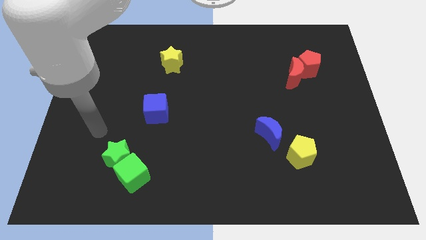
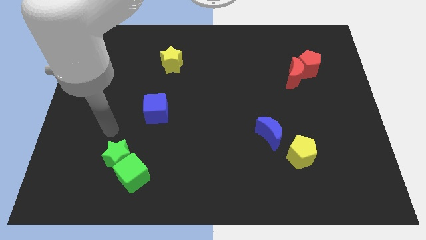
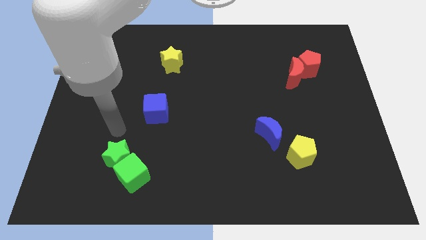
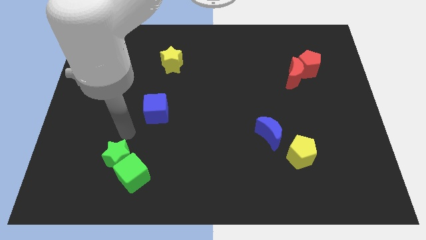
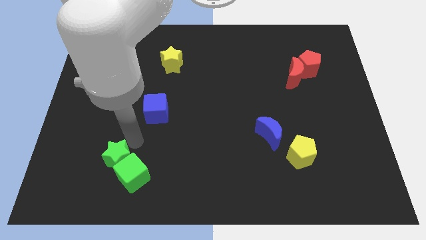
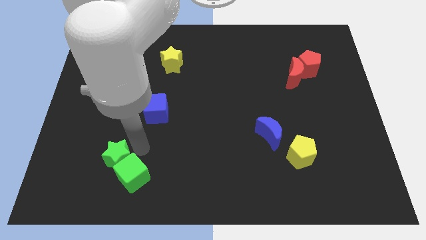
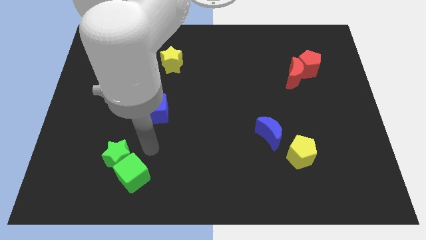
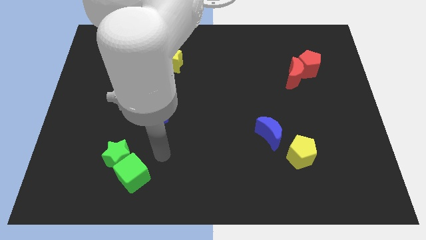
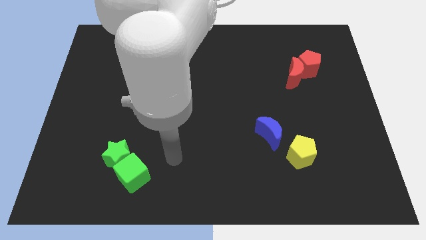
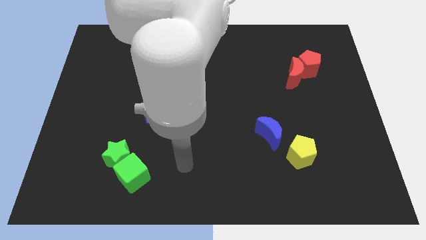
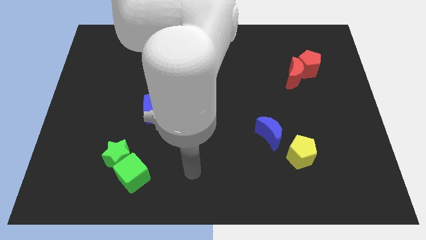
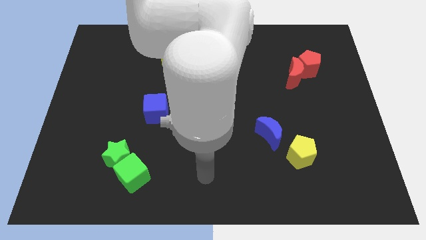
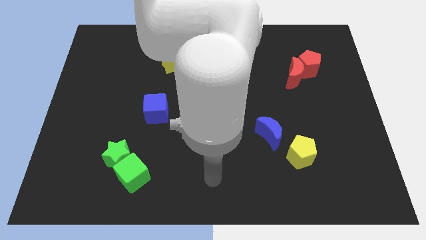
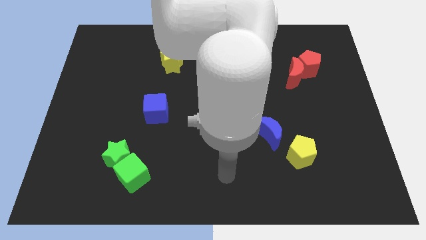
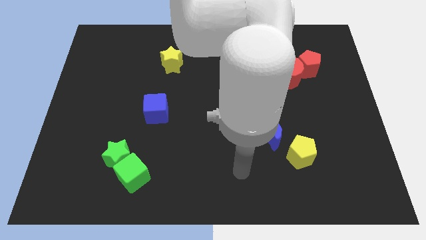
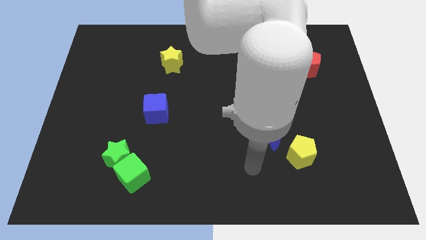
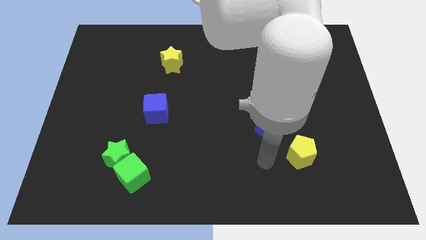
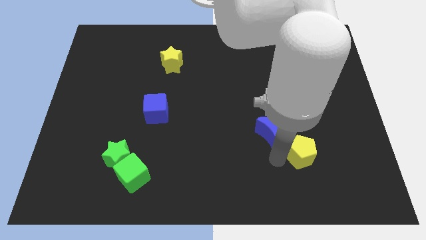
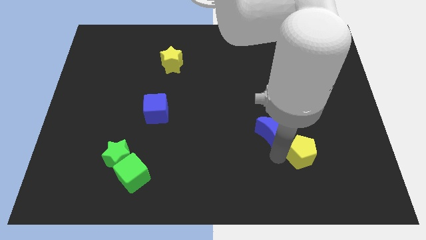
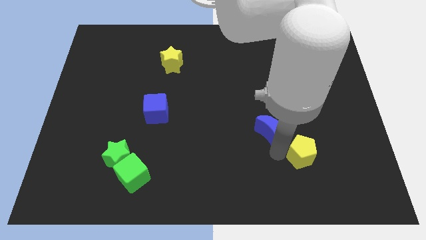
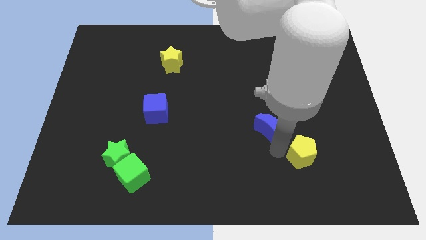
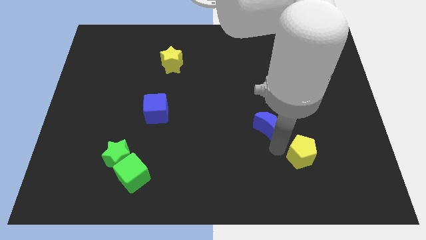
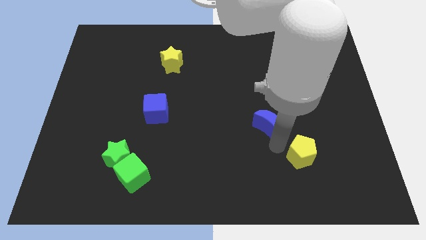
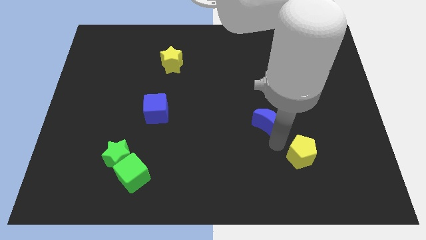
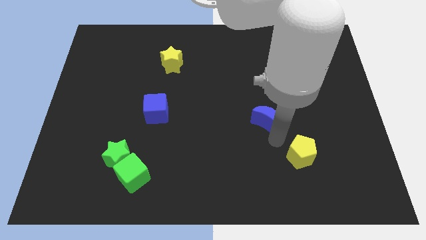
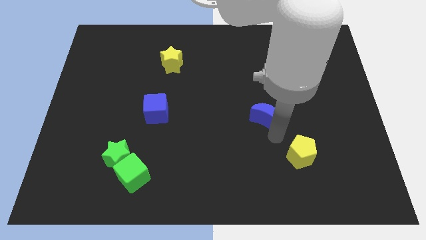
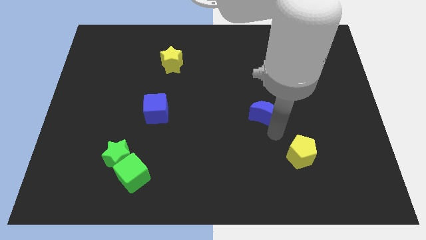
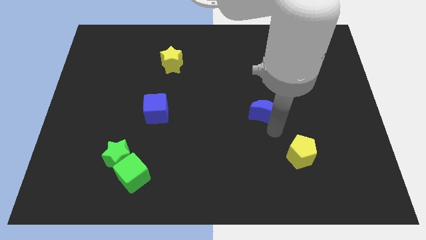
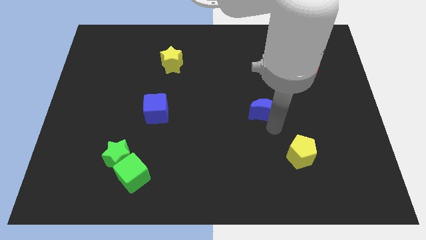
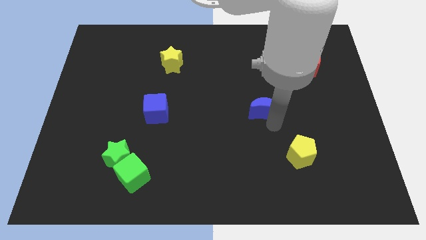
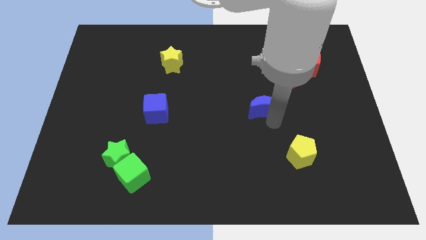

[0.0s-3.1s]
push the blue moon slightly up

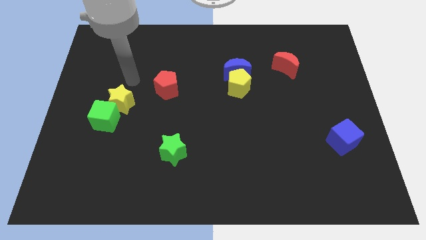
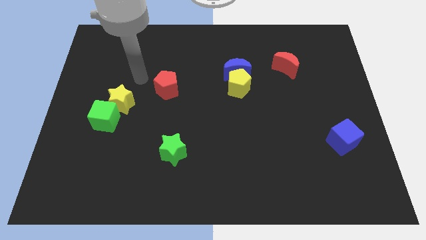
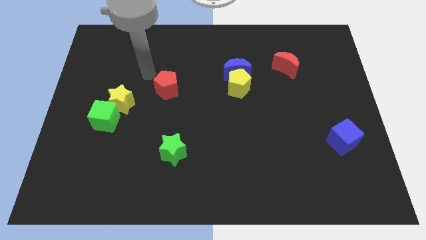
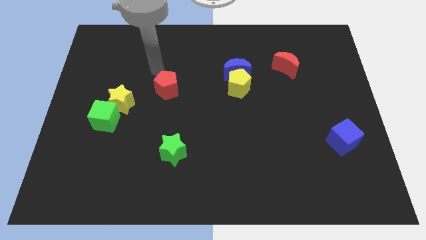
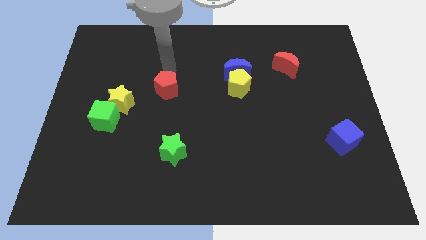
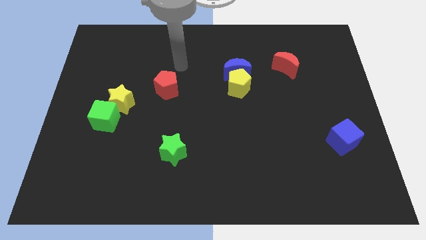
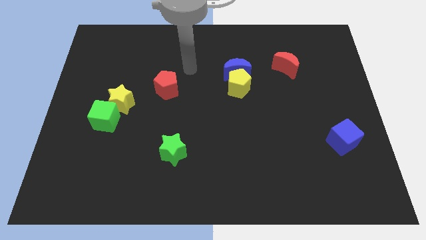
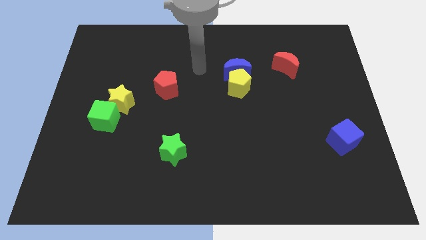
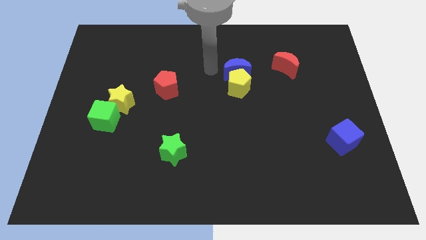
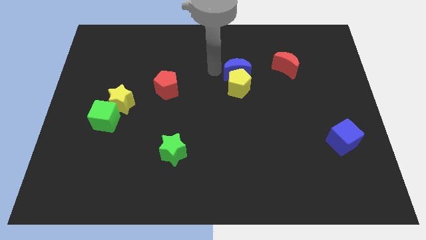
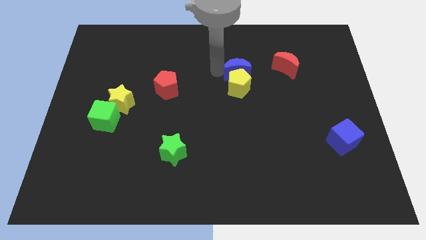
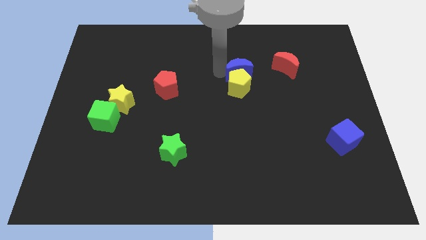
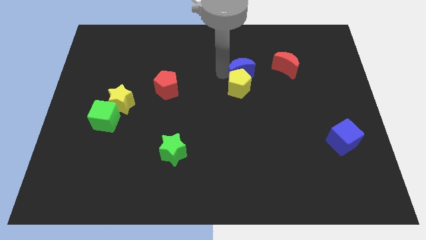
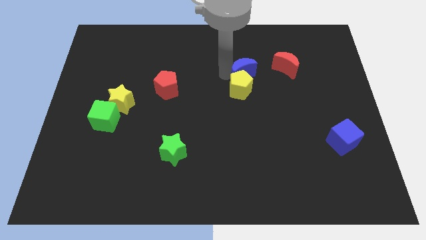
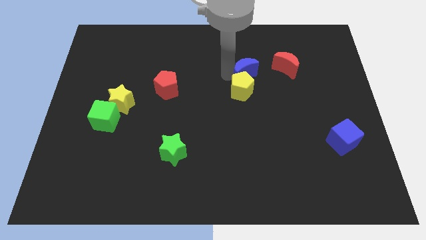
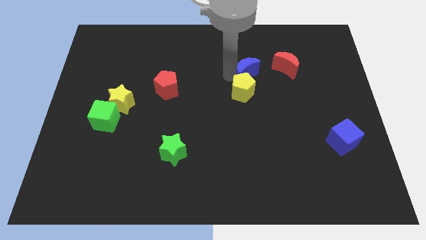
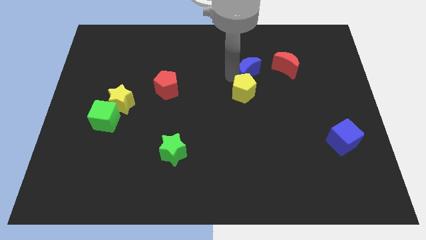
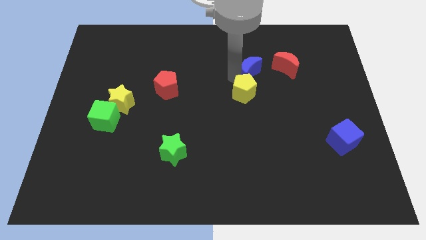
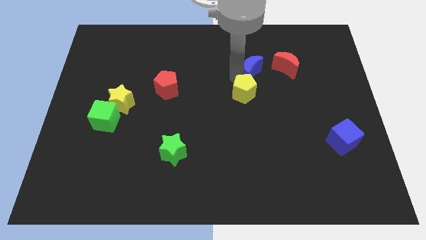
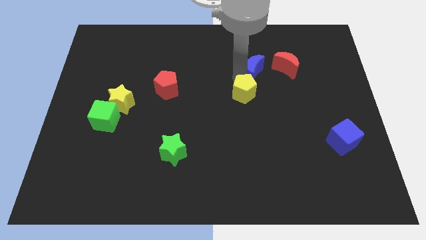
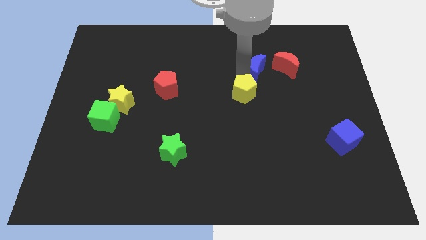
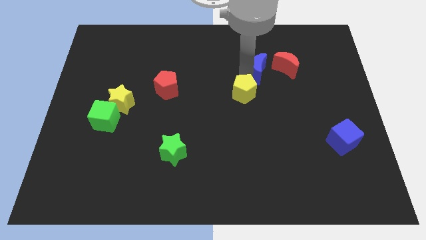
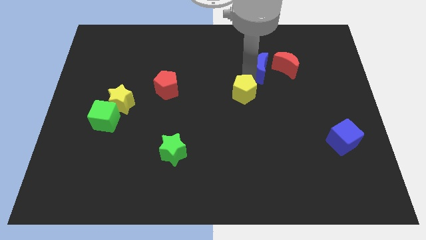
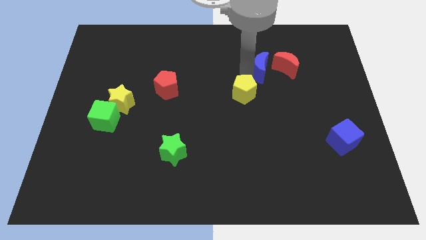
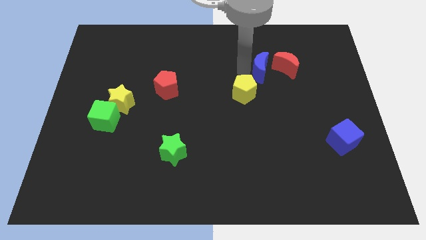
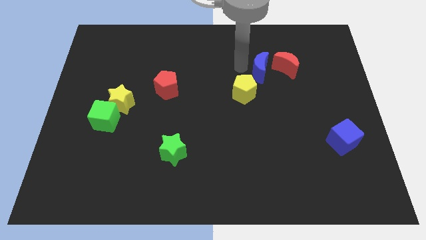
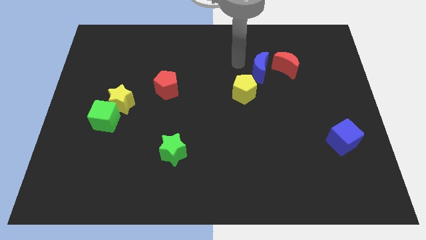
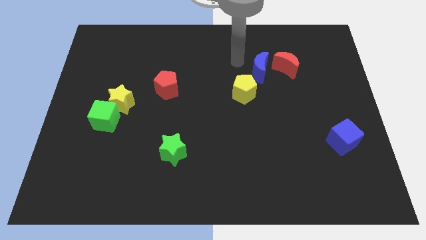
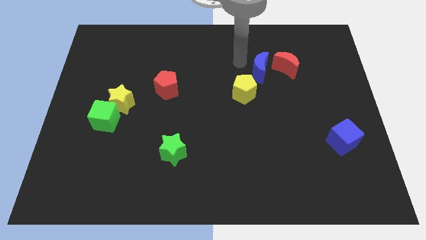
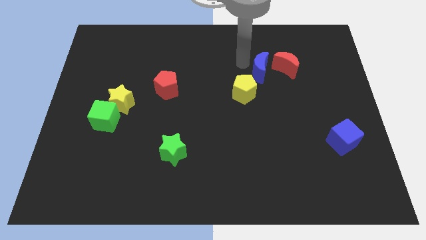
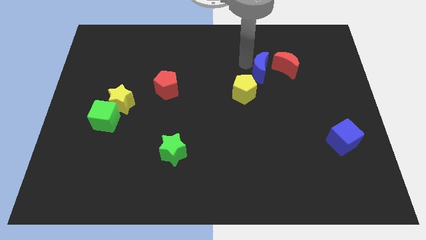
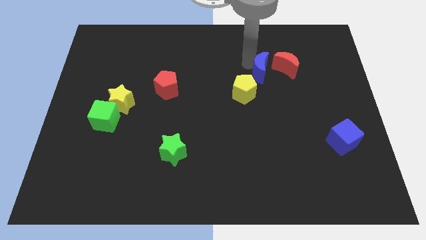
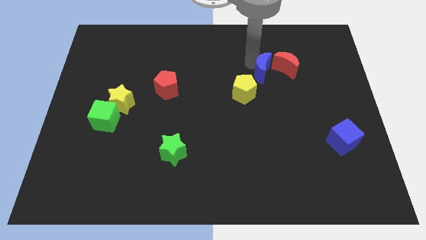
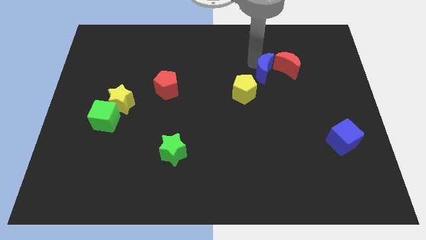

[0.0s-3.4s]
slide the blue moon right a little bit

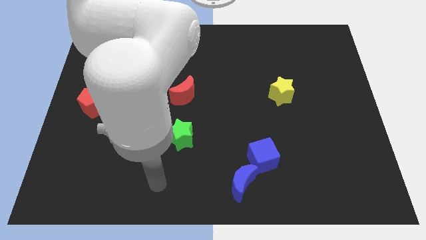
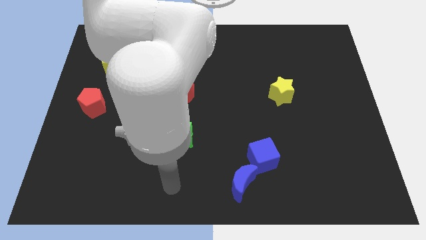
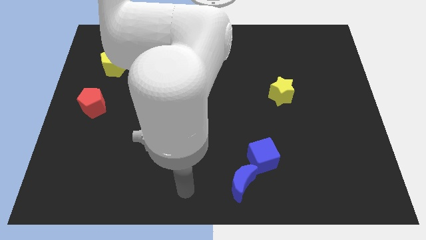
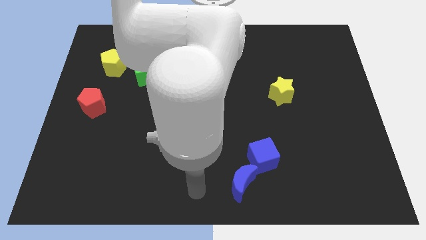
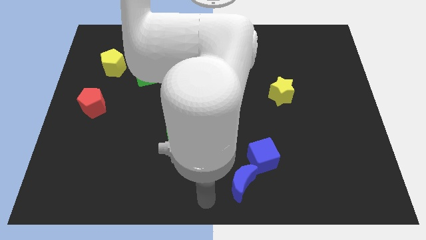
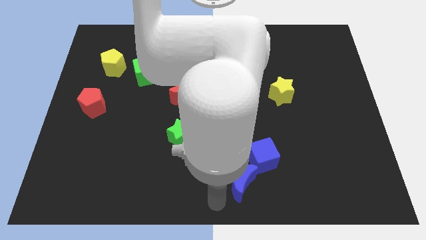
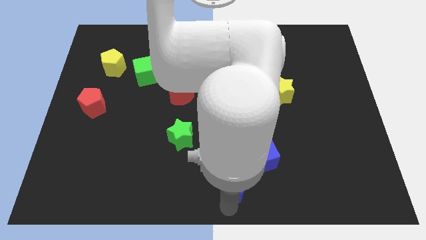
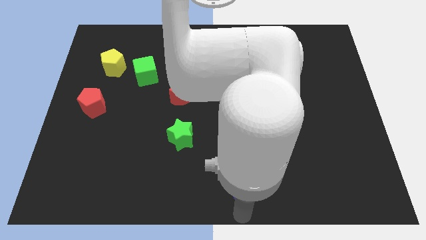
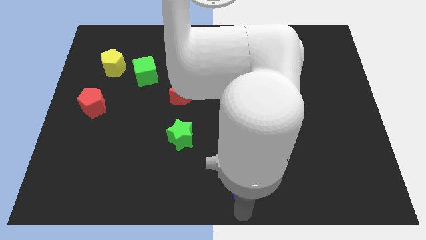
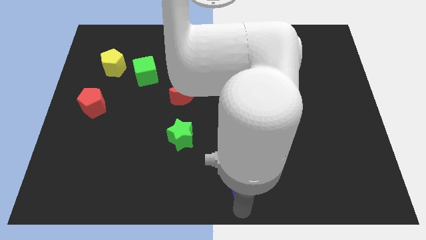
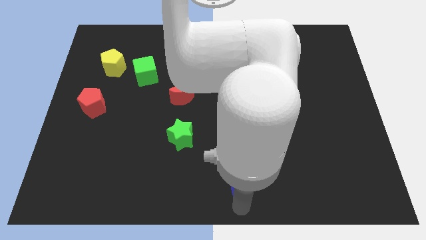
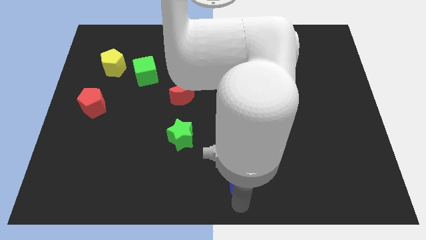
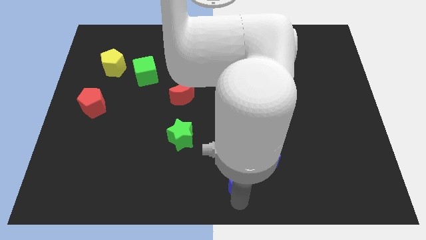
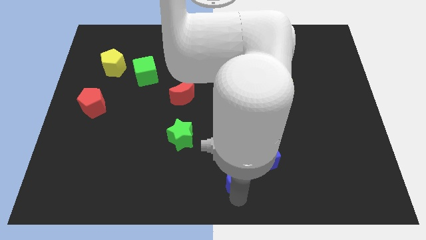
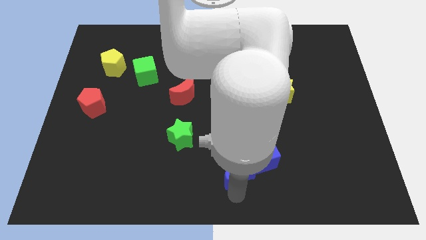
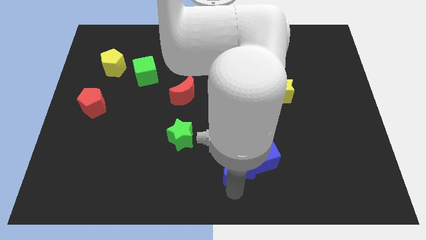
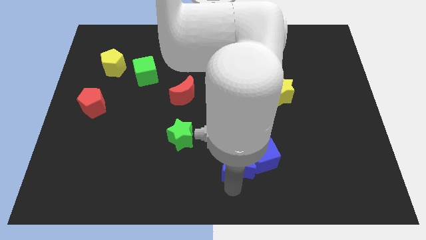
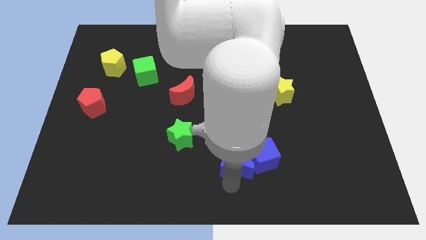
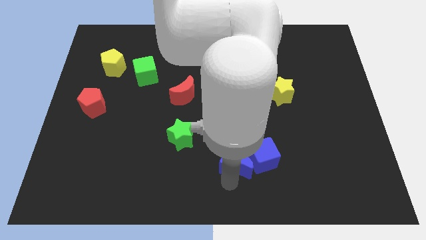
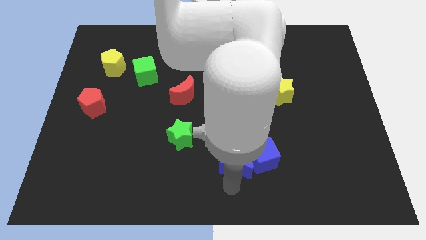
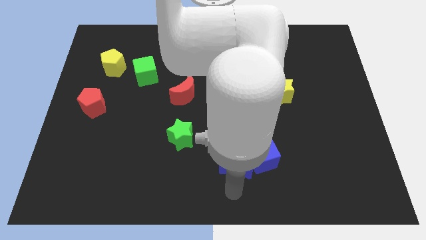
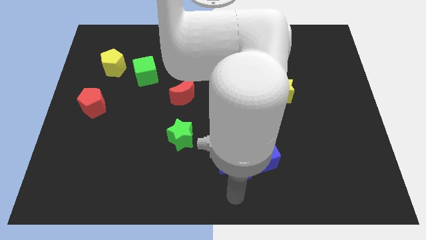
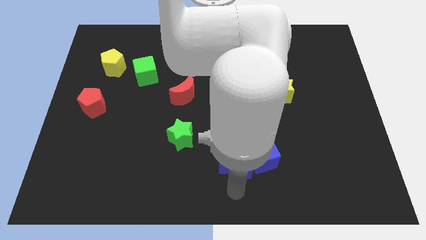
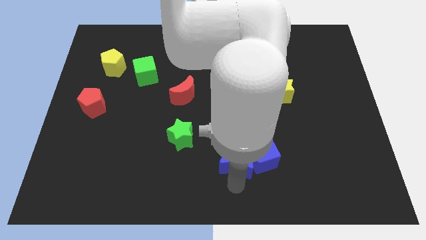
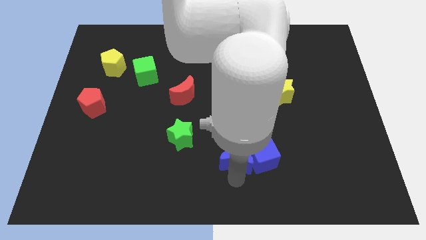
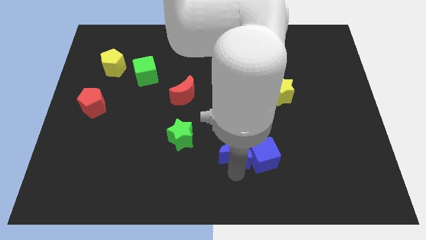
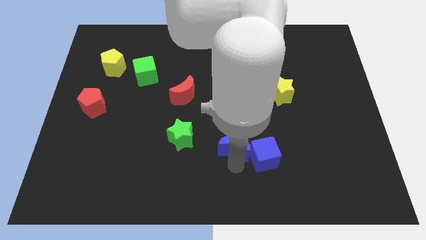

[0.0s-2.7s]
move the blue moon somewhat up
